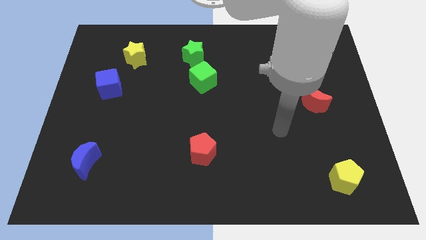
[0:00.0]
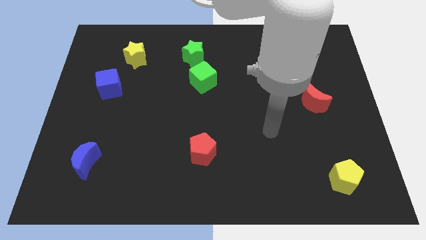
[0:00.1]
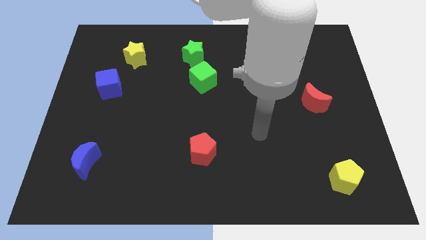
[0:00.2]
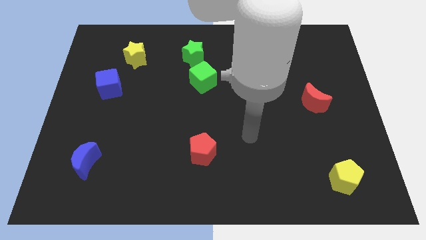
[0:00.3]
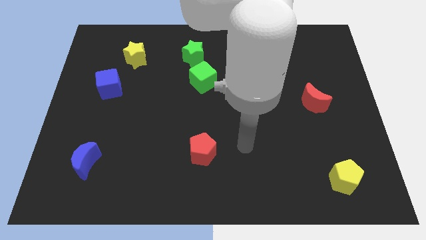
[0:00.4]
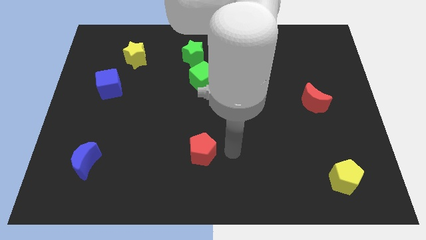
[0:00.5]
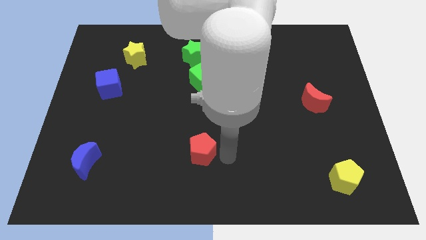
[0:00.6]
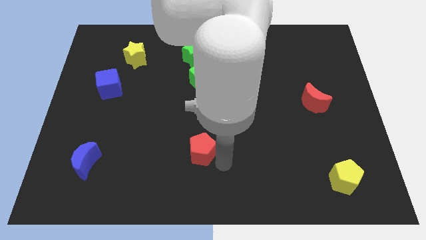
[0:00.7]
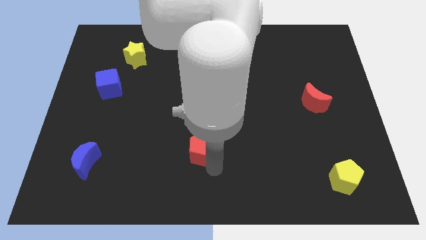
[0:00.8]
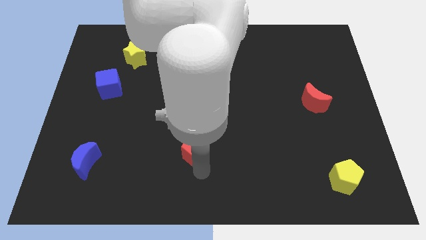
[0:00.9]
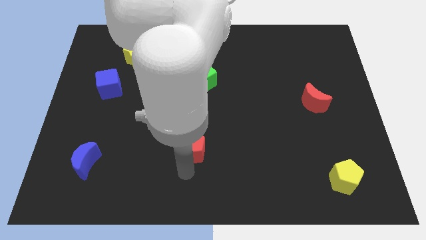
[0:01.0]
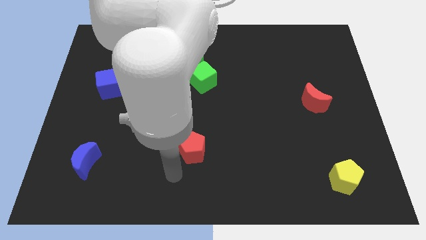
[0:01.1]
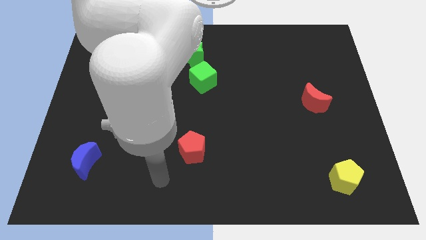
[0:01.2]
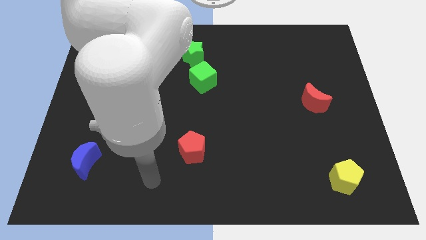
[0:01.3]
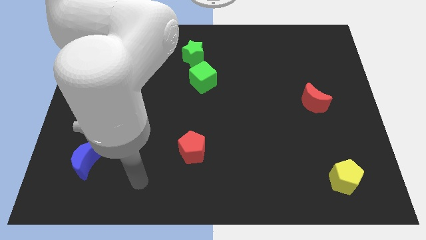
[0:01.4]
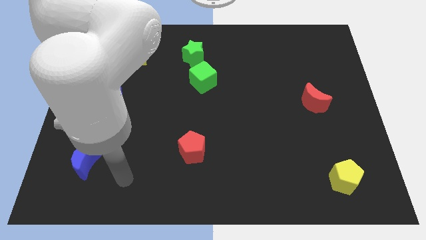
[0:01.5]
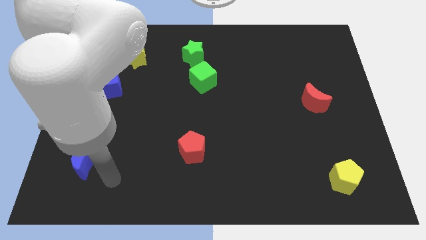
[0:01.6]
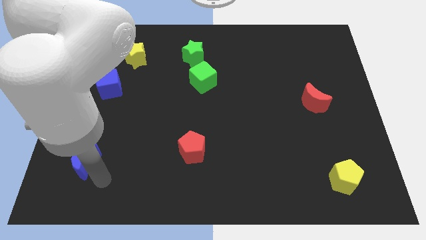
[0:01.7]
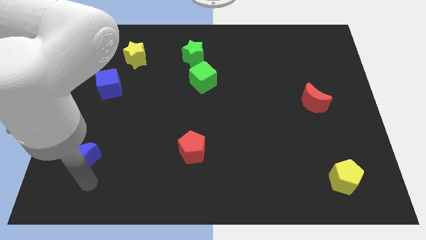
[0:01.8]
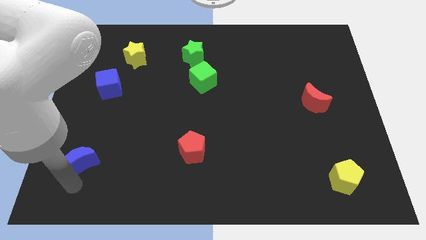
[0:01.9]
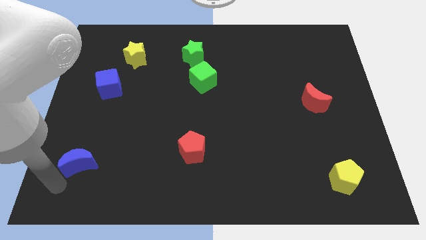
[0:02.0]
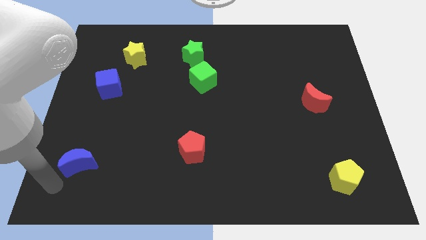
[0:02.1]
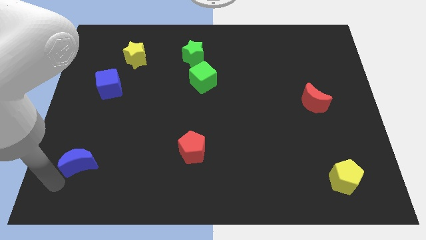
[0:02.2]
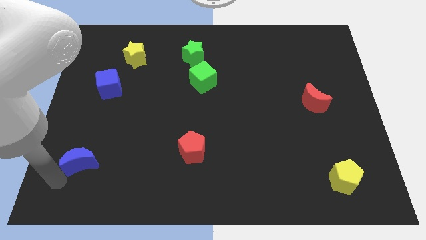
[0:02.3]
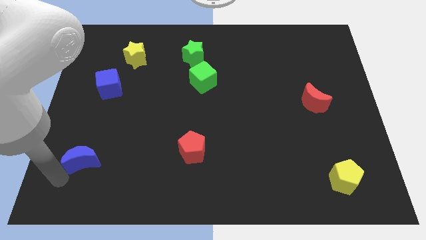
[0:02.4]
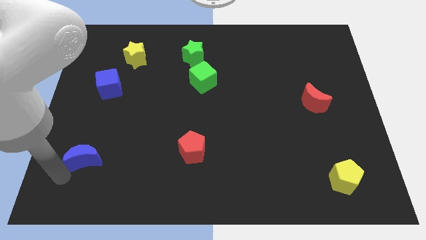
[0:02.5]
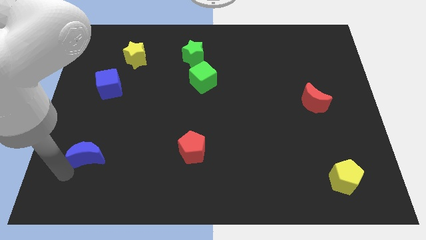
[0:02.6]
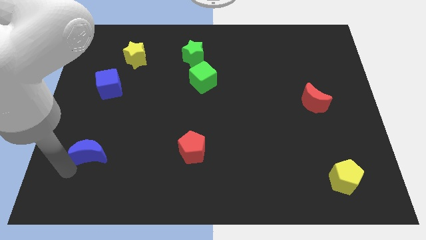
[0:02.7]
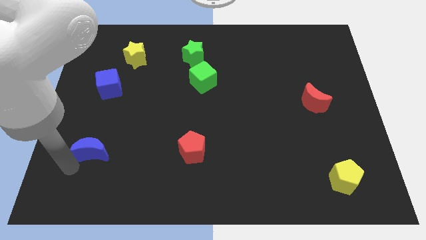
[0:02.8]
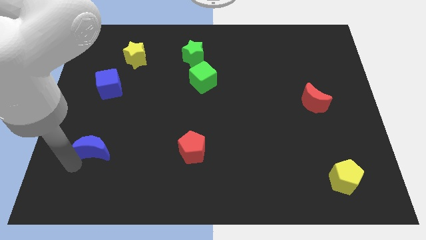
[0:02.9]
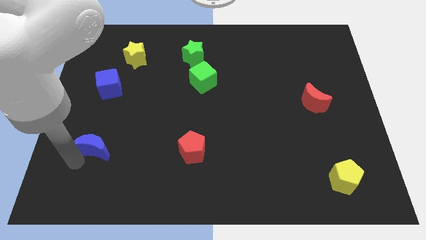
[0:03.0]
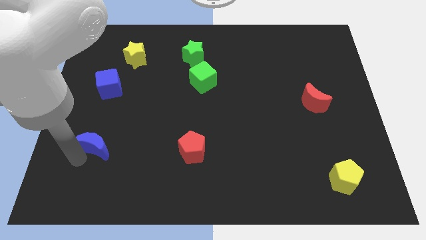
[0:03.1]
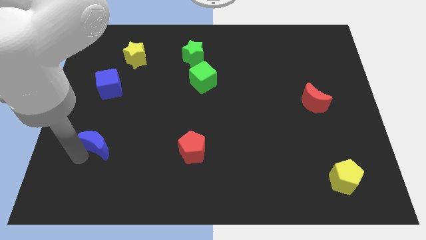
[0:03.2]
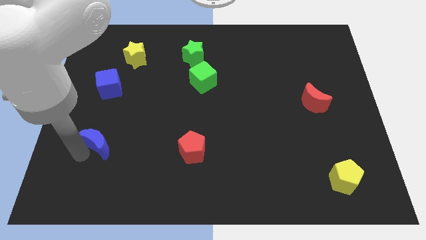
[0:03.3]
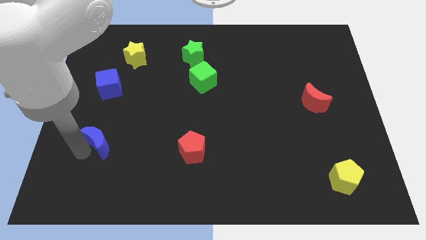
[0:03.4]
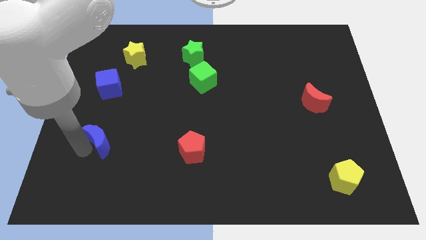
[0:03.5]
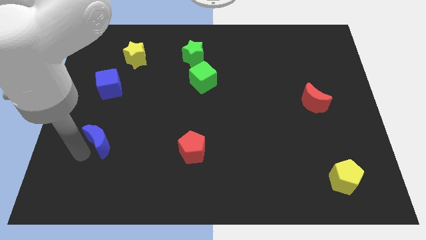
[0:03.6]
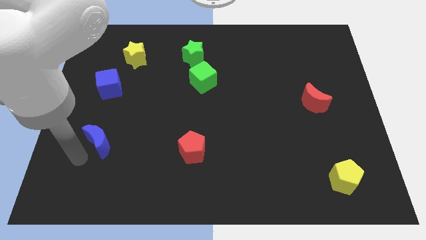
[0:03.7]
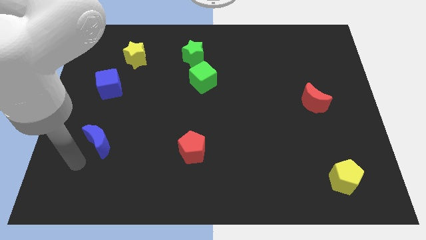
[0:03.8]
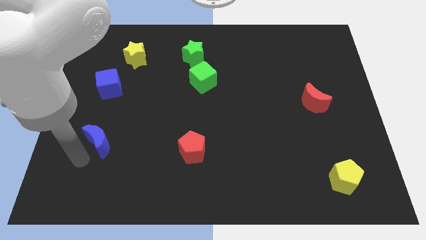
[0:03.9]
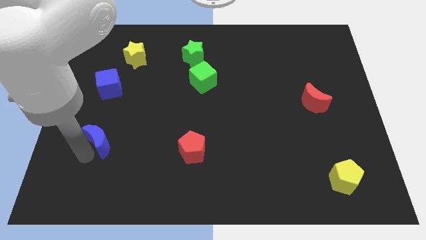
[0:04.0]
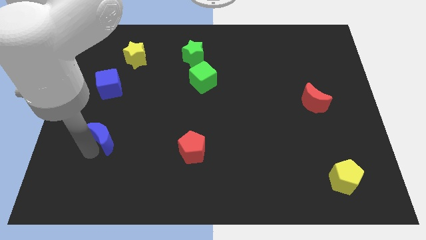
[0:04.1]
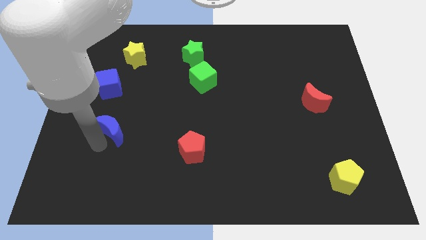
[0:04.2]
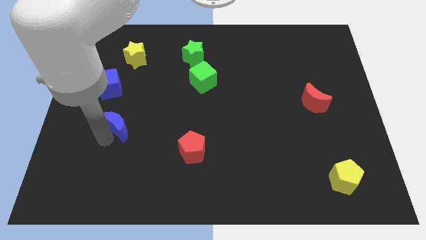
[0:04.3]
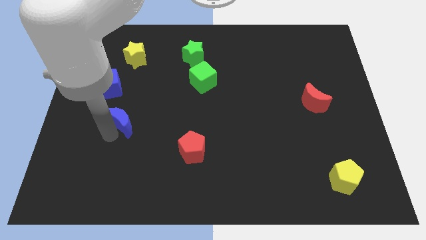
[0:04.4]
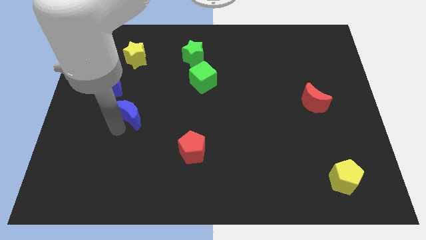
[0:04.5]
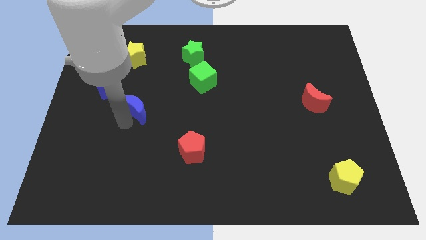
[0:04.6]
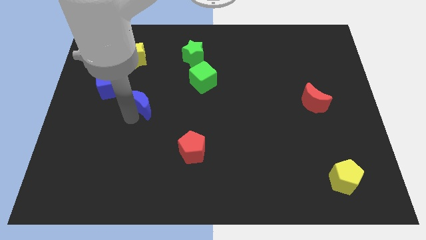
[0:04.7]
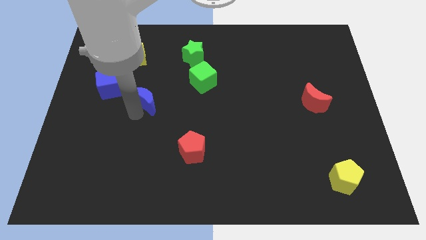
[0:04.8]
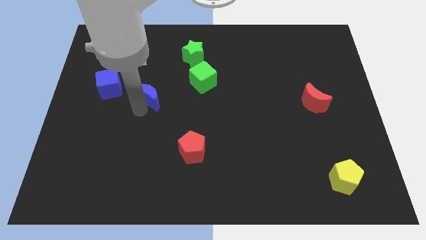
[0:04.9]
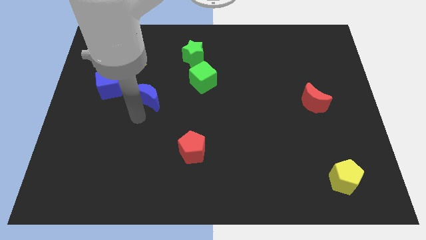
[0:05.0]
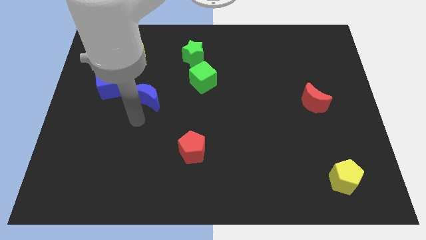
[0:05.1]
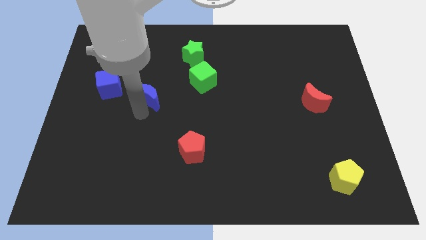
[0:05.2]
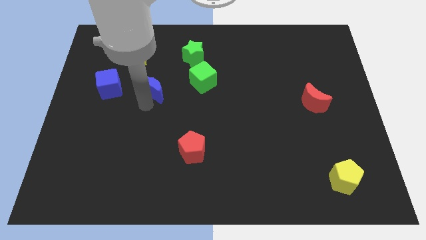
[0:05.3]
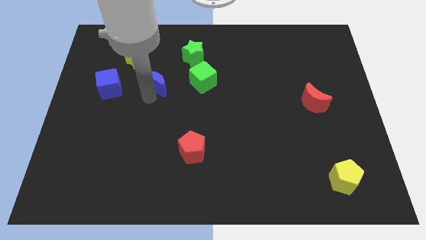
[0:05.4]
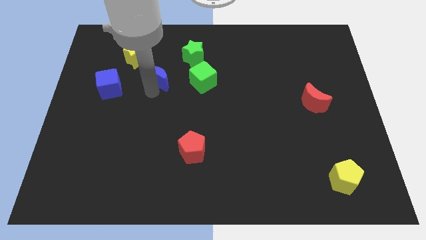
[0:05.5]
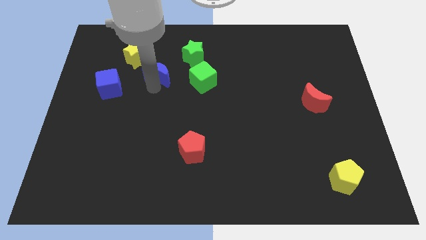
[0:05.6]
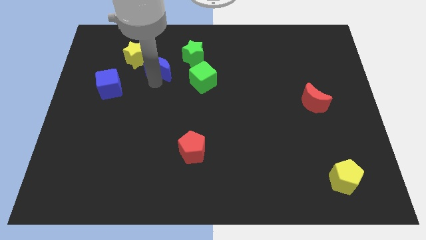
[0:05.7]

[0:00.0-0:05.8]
put the blue moon just right of the yellow star

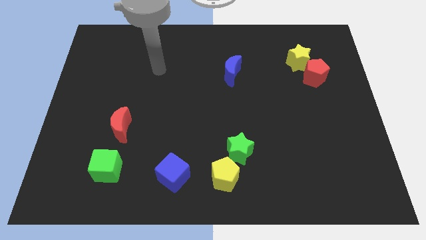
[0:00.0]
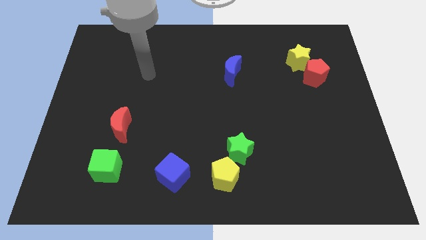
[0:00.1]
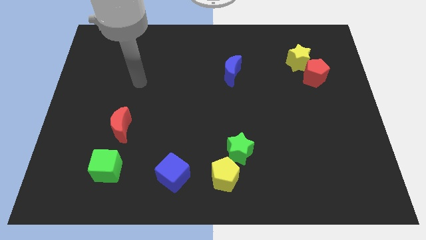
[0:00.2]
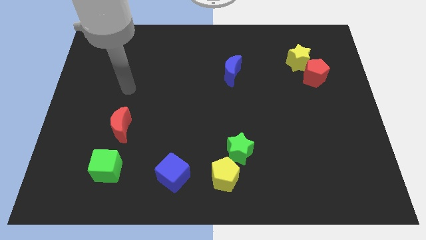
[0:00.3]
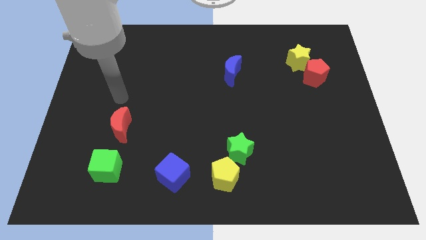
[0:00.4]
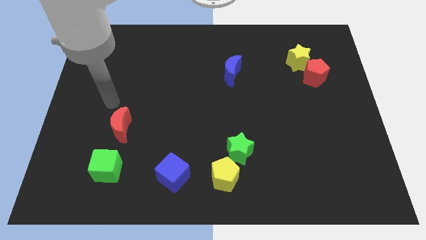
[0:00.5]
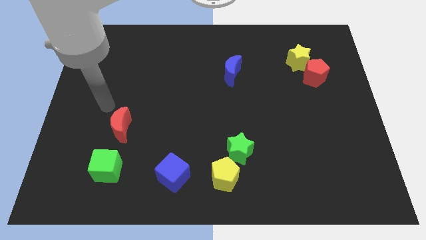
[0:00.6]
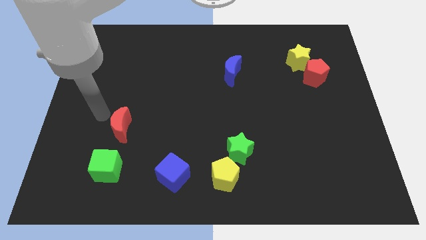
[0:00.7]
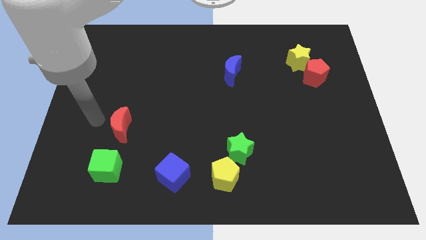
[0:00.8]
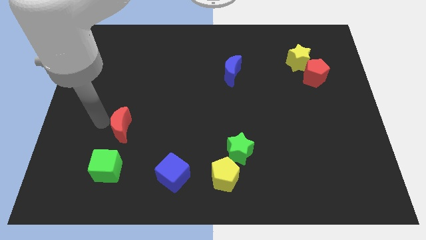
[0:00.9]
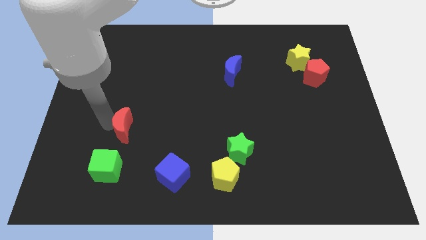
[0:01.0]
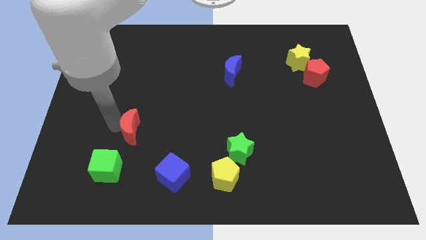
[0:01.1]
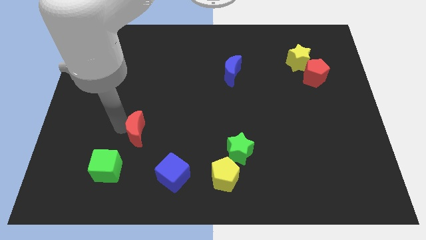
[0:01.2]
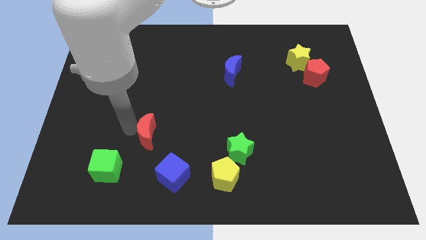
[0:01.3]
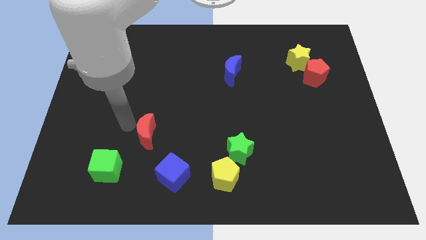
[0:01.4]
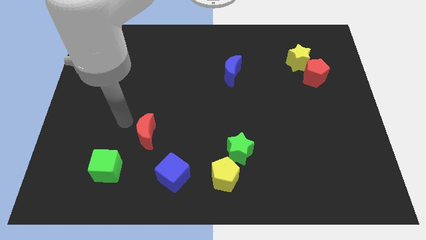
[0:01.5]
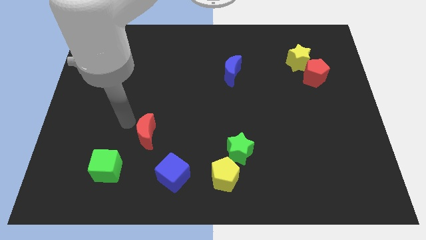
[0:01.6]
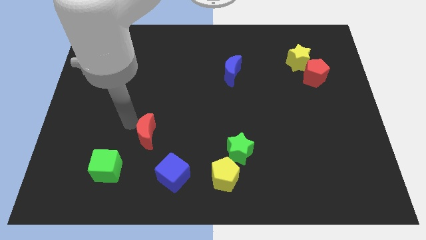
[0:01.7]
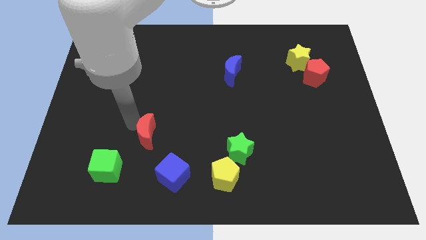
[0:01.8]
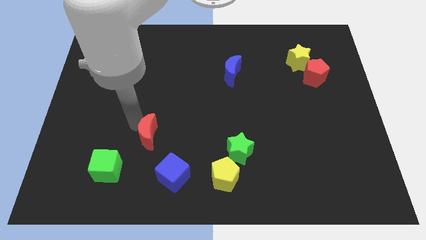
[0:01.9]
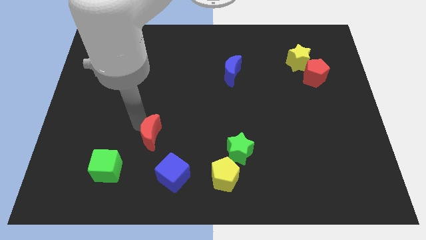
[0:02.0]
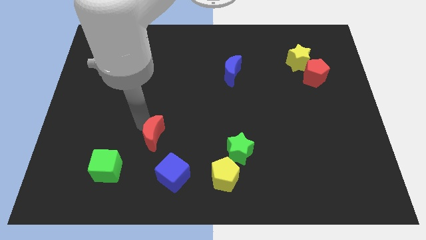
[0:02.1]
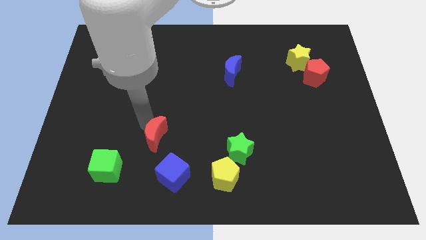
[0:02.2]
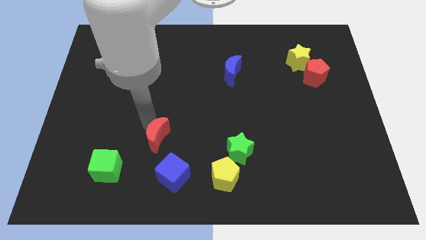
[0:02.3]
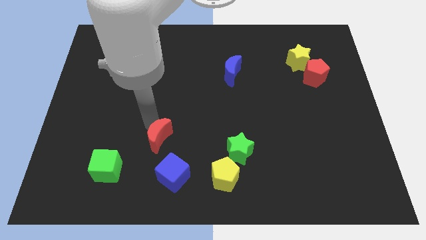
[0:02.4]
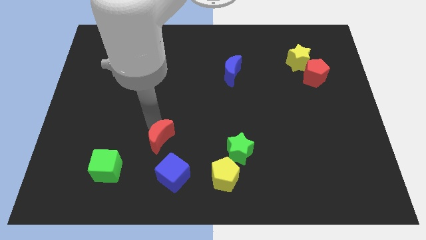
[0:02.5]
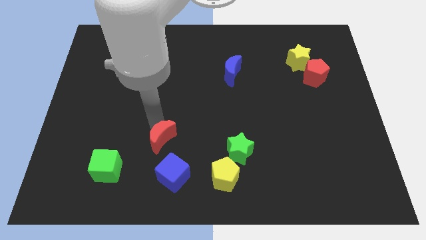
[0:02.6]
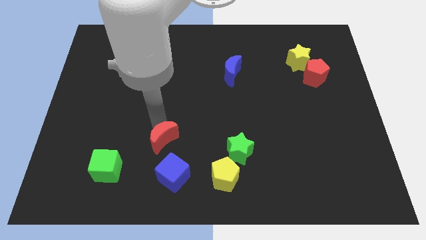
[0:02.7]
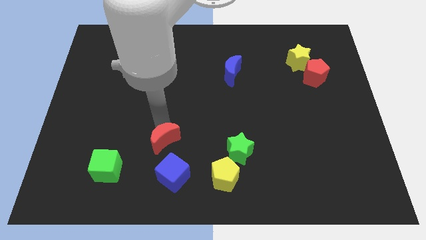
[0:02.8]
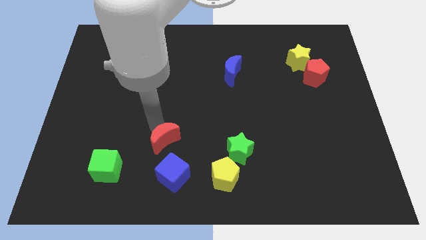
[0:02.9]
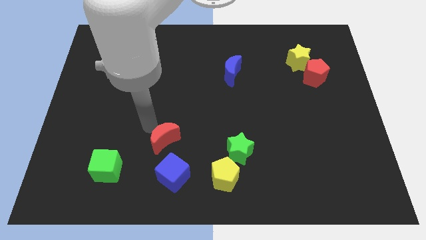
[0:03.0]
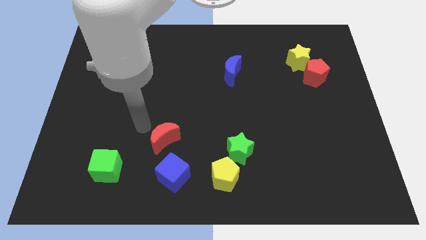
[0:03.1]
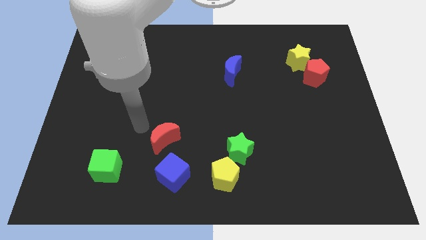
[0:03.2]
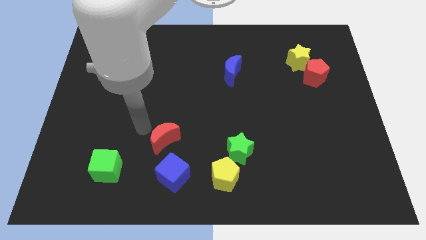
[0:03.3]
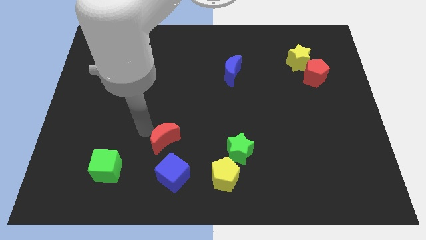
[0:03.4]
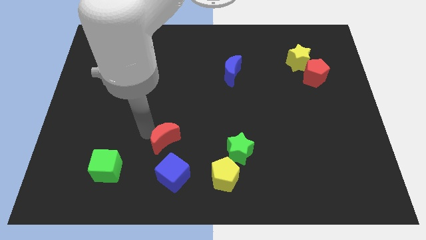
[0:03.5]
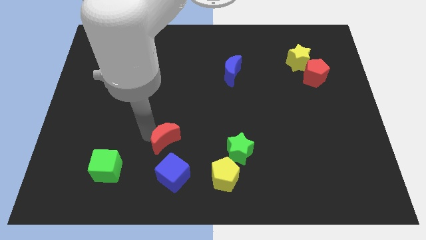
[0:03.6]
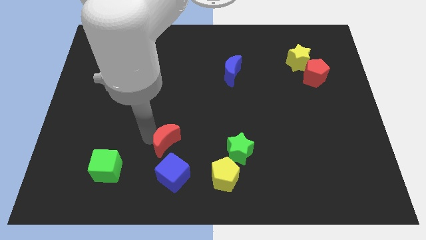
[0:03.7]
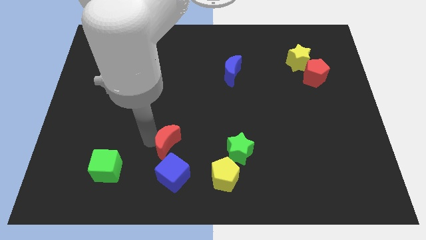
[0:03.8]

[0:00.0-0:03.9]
slide the red moon to the left of the green star
